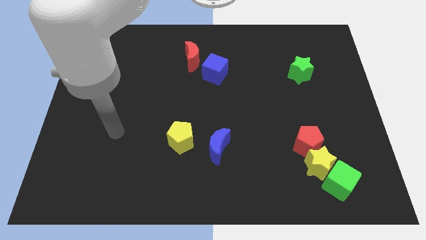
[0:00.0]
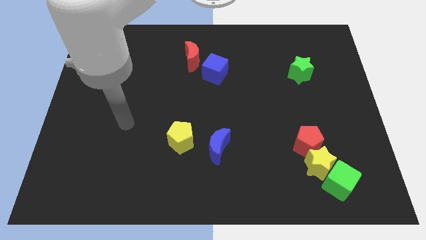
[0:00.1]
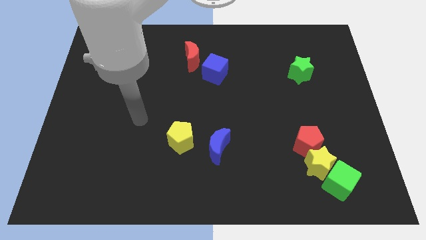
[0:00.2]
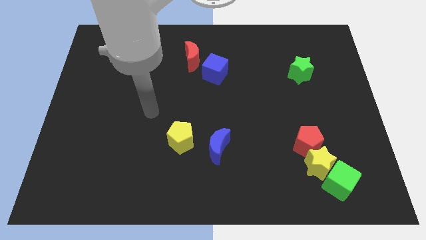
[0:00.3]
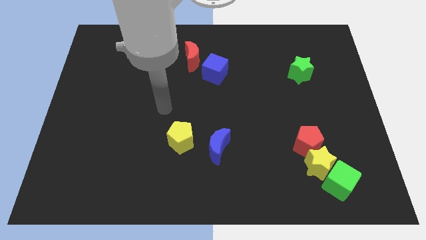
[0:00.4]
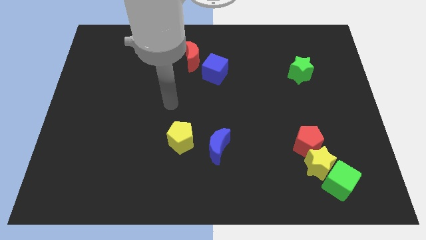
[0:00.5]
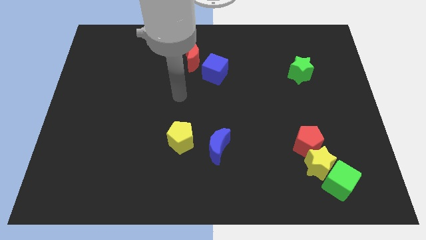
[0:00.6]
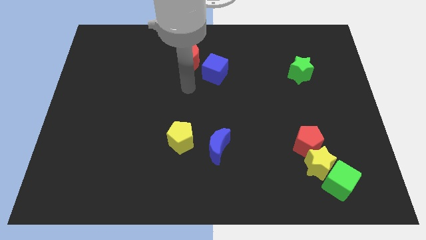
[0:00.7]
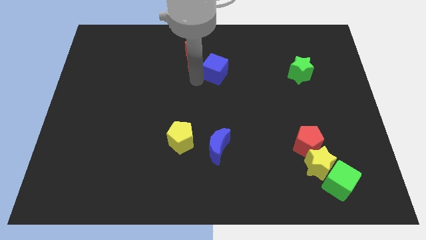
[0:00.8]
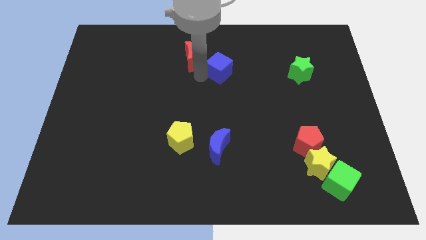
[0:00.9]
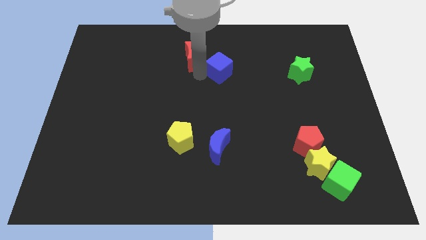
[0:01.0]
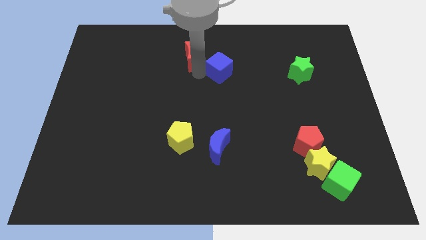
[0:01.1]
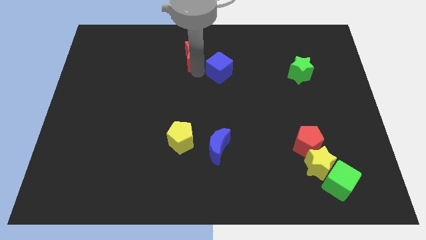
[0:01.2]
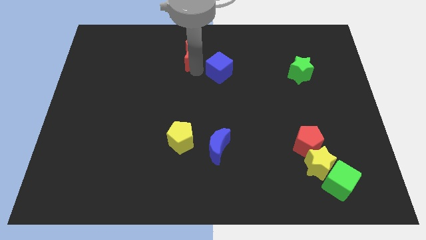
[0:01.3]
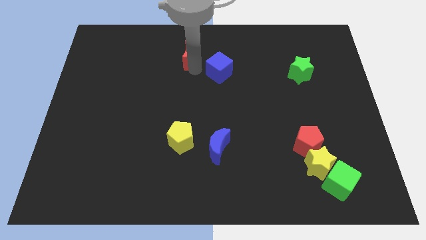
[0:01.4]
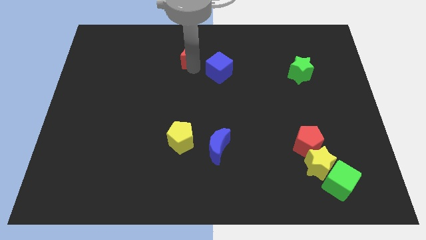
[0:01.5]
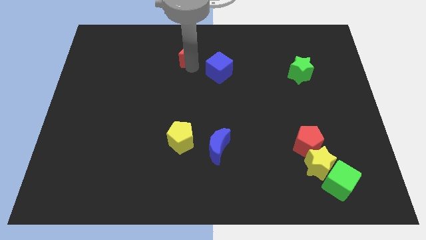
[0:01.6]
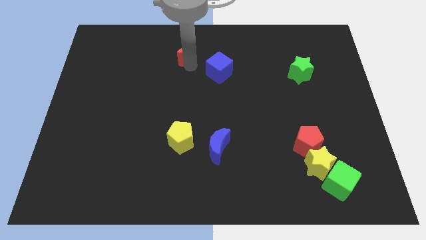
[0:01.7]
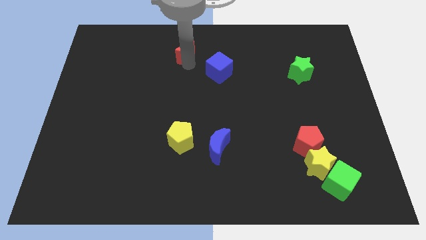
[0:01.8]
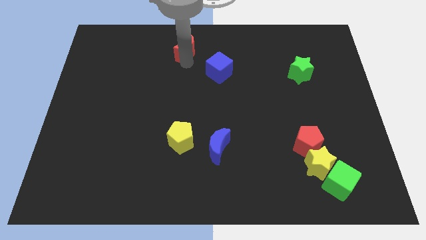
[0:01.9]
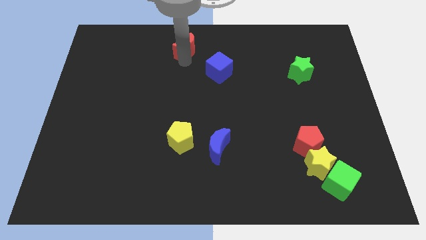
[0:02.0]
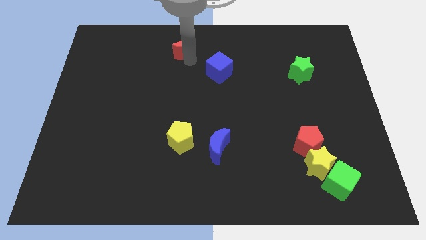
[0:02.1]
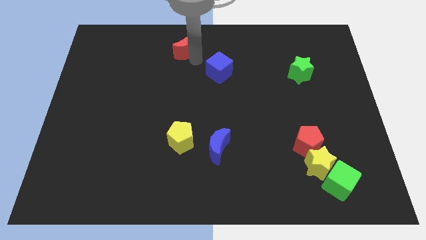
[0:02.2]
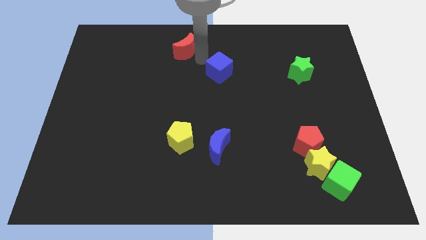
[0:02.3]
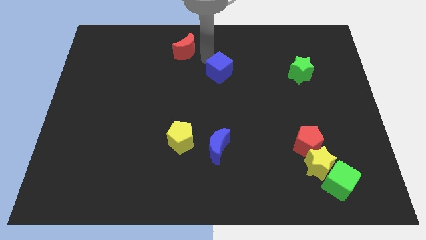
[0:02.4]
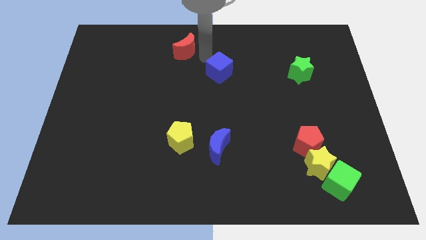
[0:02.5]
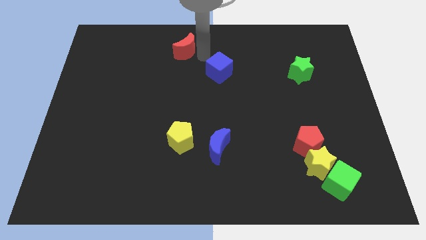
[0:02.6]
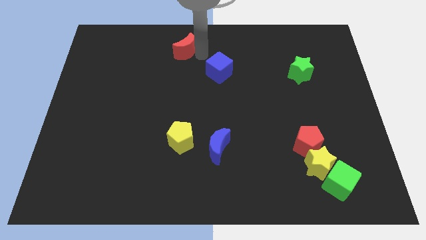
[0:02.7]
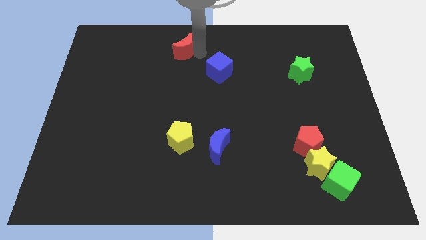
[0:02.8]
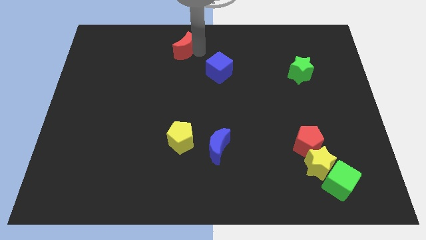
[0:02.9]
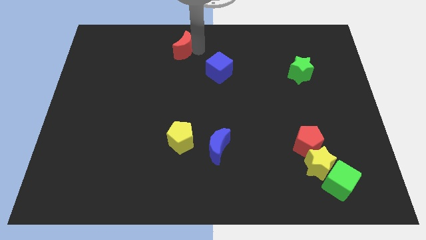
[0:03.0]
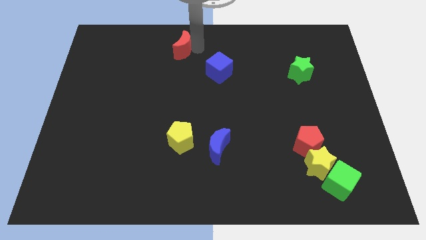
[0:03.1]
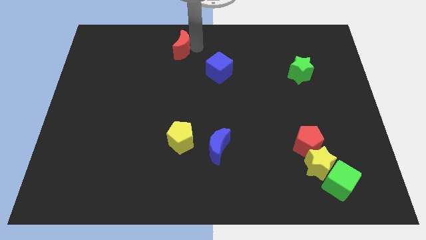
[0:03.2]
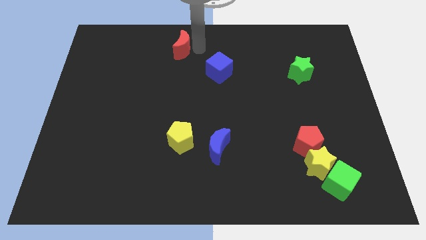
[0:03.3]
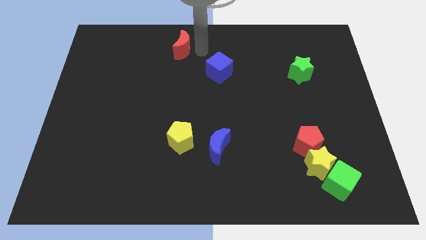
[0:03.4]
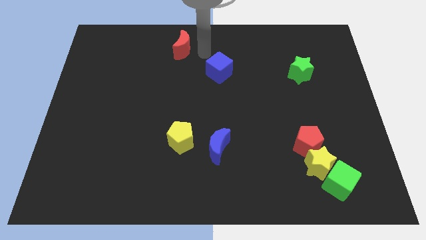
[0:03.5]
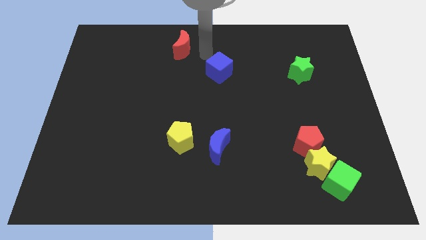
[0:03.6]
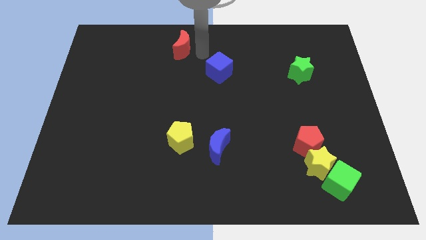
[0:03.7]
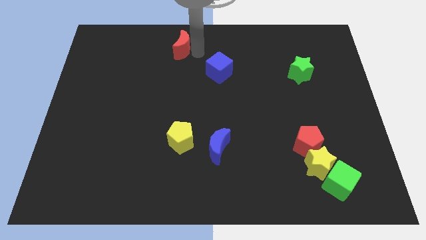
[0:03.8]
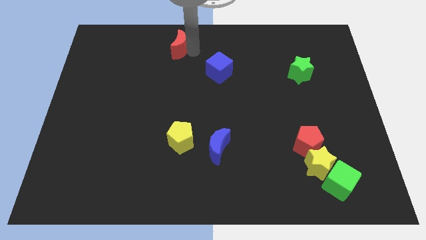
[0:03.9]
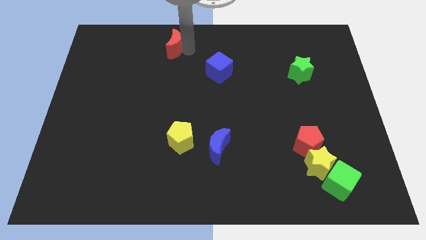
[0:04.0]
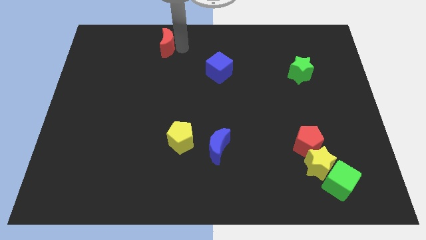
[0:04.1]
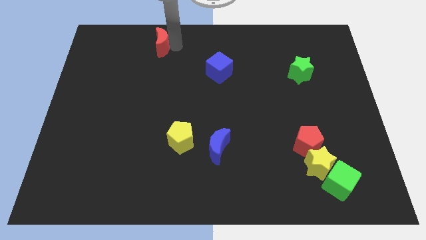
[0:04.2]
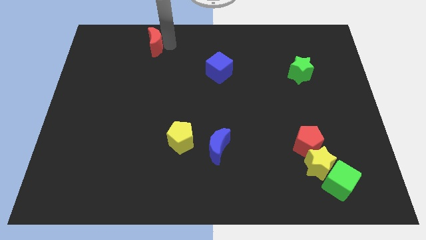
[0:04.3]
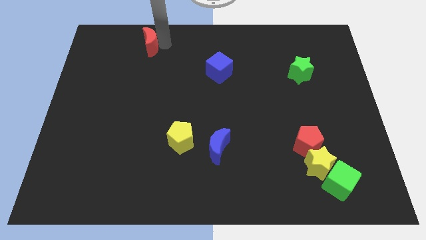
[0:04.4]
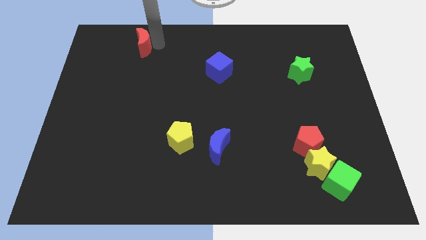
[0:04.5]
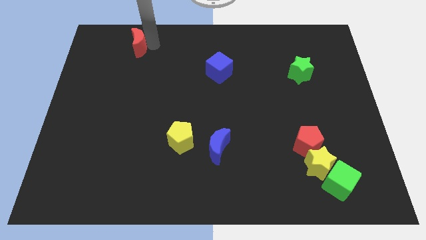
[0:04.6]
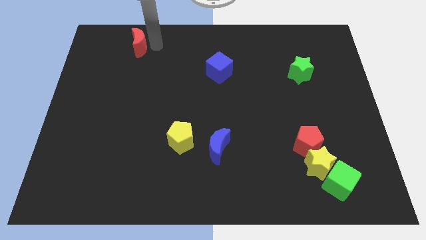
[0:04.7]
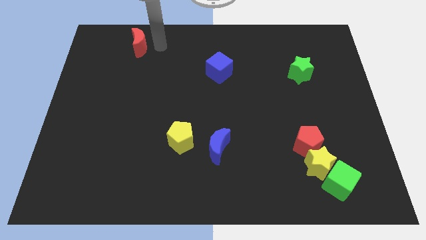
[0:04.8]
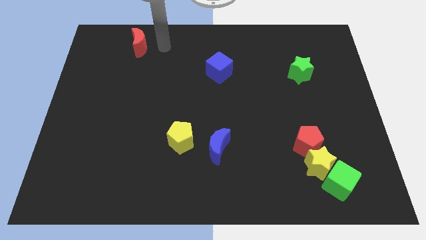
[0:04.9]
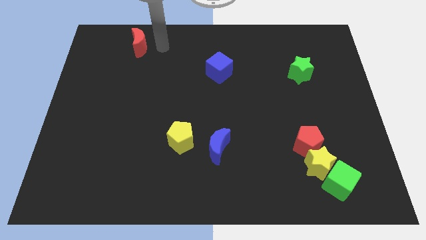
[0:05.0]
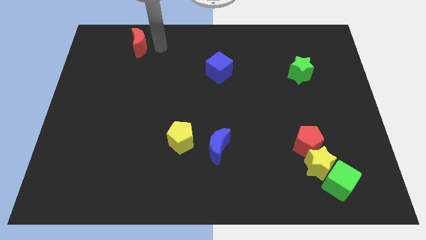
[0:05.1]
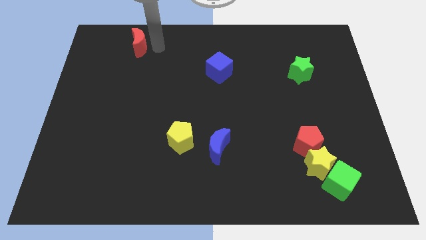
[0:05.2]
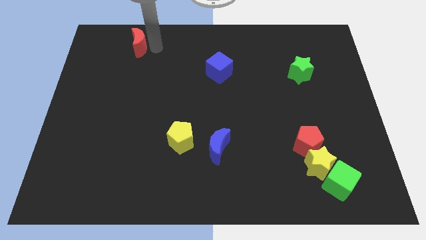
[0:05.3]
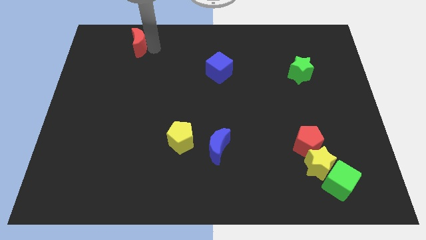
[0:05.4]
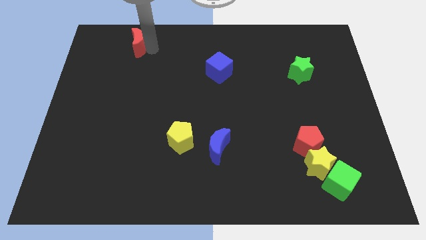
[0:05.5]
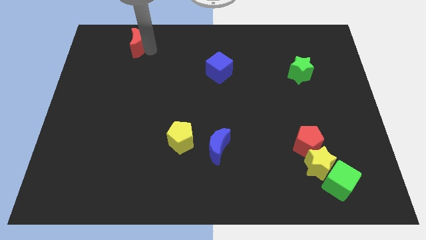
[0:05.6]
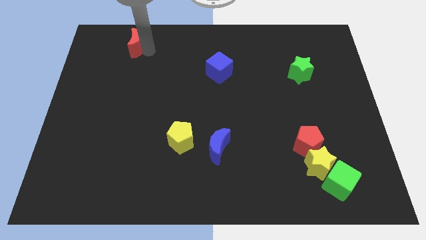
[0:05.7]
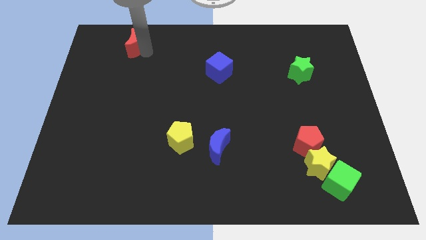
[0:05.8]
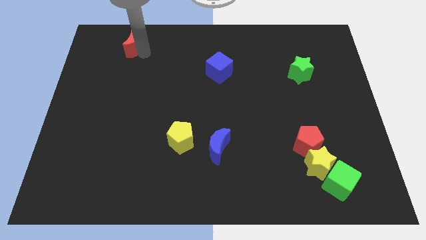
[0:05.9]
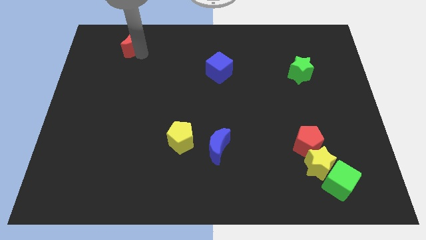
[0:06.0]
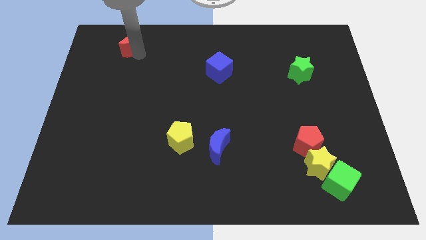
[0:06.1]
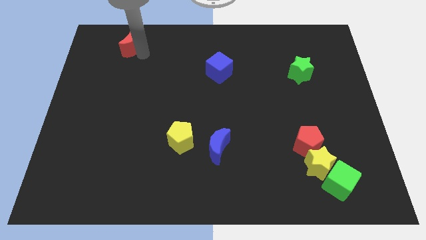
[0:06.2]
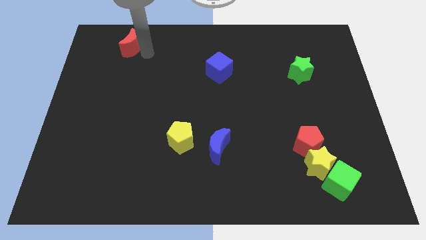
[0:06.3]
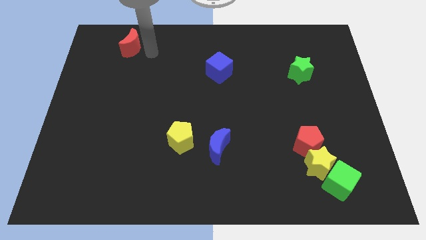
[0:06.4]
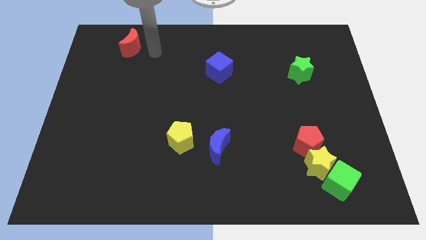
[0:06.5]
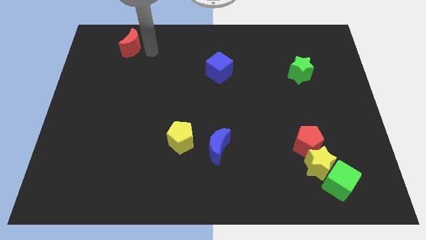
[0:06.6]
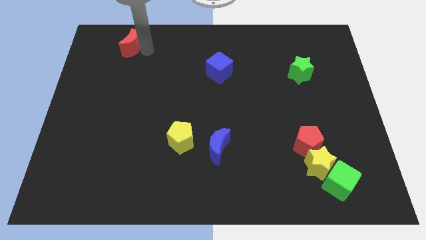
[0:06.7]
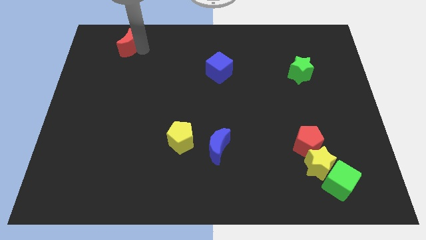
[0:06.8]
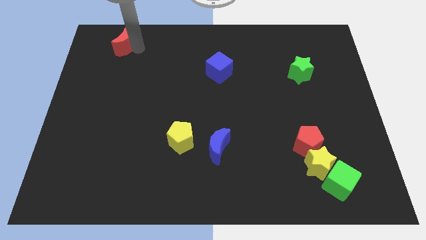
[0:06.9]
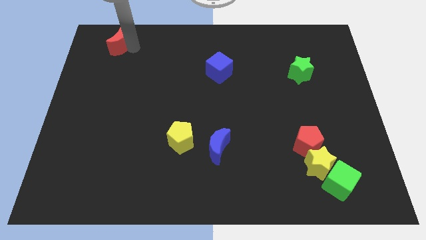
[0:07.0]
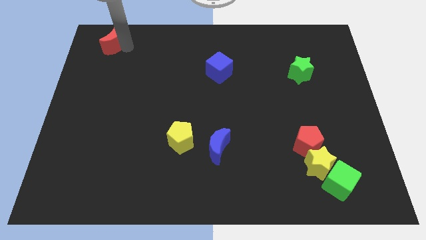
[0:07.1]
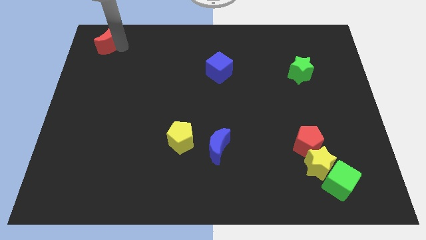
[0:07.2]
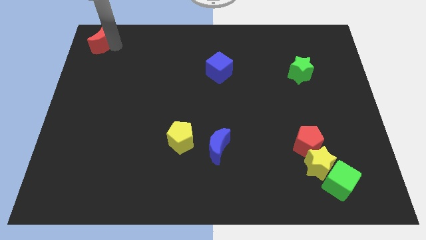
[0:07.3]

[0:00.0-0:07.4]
slide the red moon to the top left of the board
